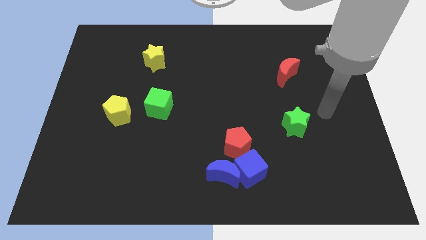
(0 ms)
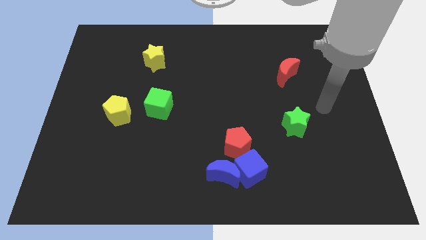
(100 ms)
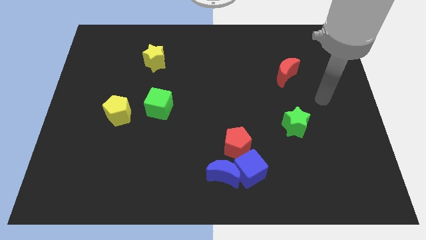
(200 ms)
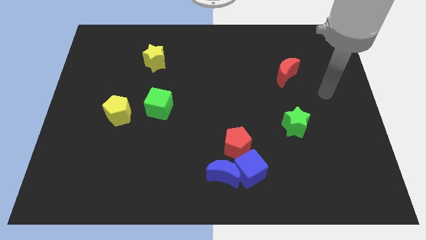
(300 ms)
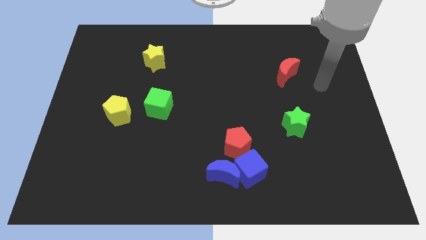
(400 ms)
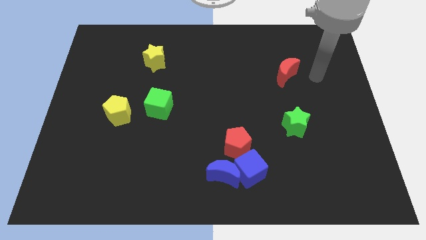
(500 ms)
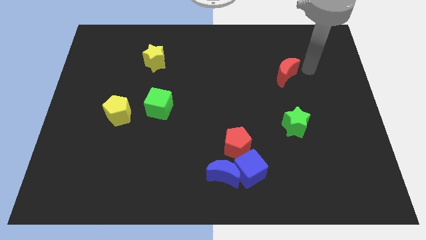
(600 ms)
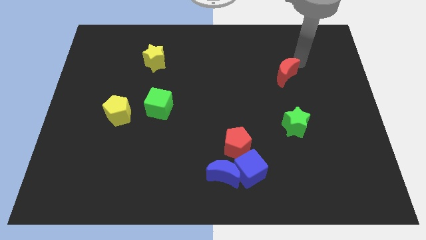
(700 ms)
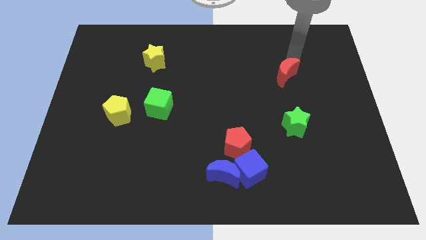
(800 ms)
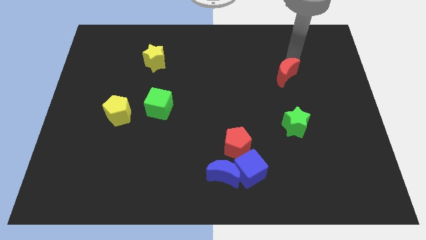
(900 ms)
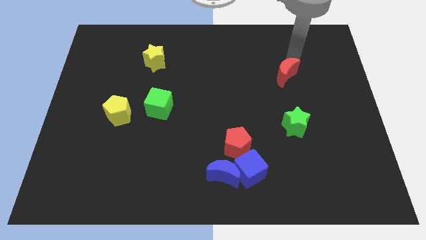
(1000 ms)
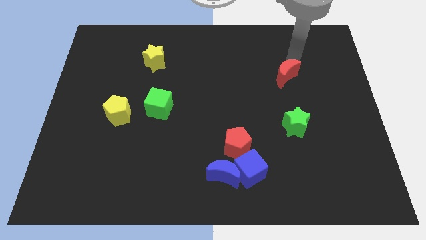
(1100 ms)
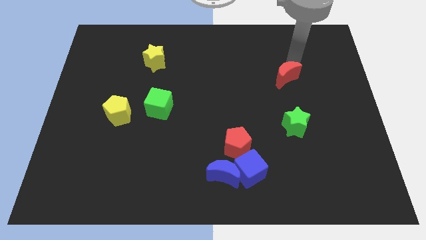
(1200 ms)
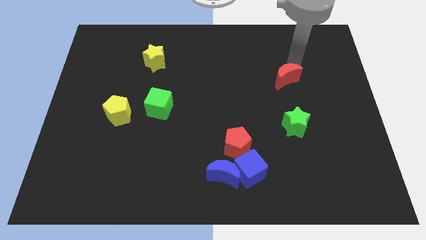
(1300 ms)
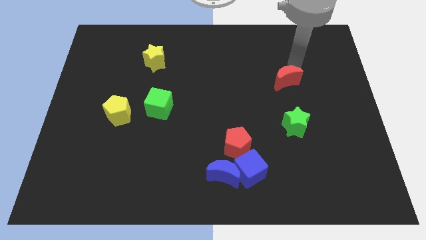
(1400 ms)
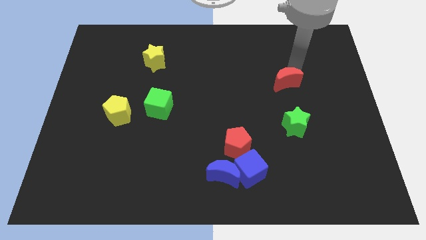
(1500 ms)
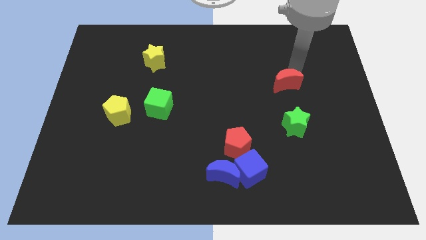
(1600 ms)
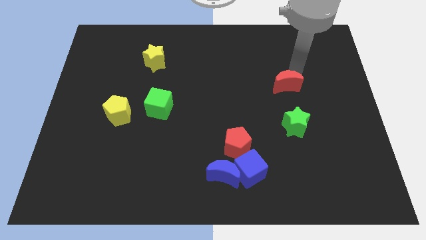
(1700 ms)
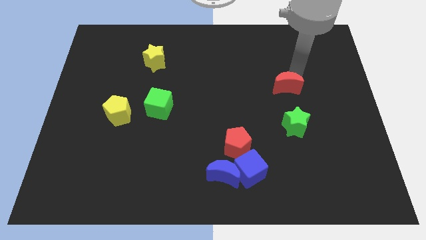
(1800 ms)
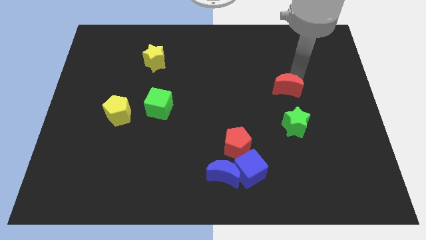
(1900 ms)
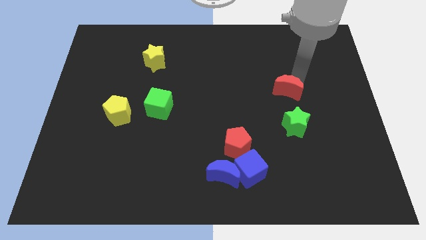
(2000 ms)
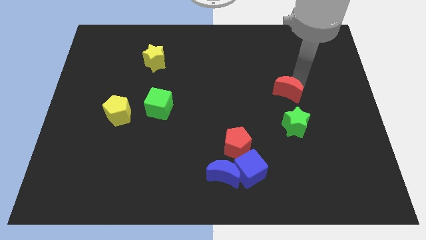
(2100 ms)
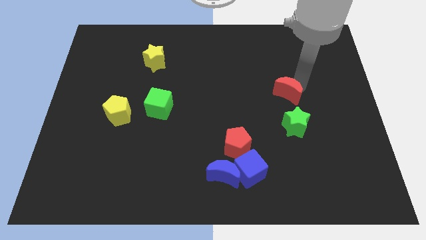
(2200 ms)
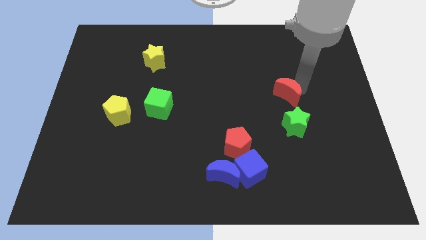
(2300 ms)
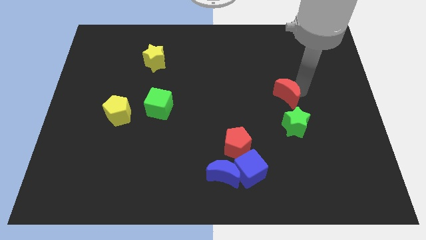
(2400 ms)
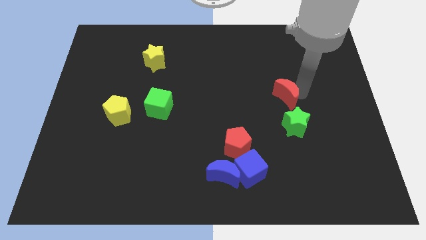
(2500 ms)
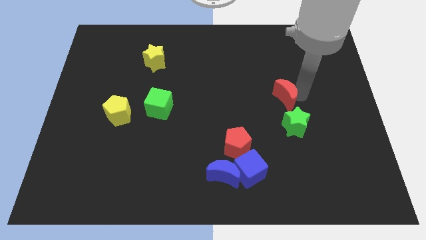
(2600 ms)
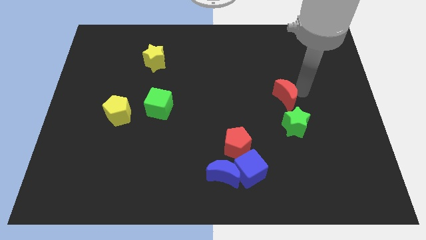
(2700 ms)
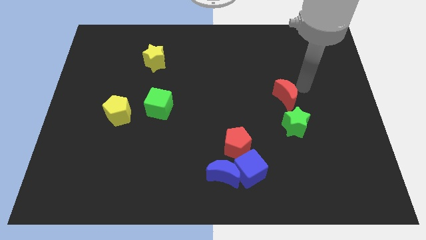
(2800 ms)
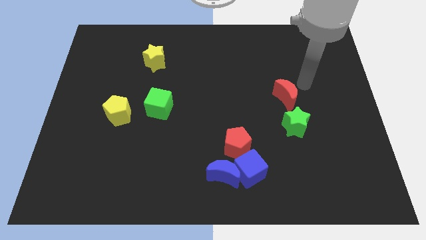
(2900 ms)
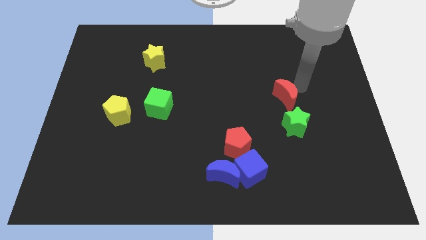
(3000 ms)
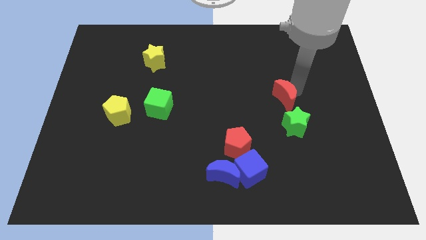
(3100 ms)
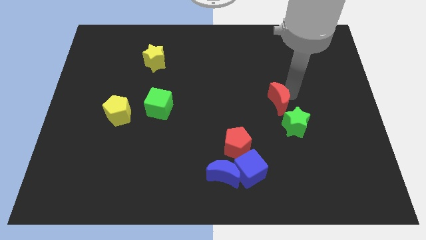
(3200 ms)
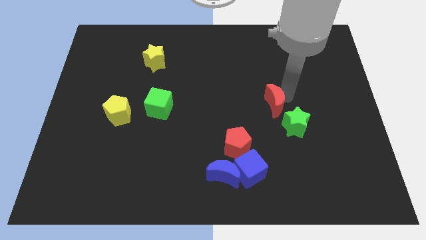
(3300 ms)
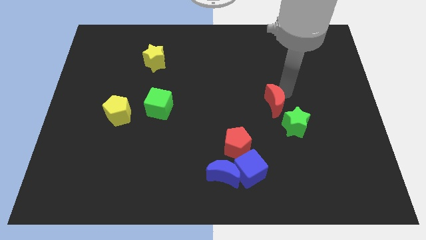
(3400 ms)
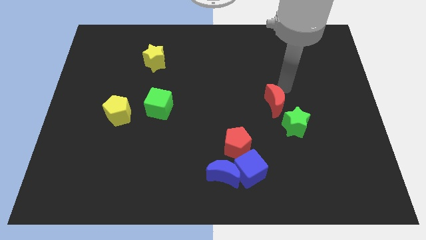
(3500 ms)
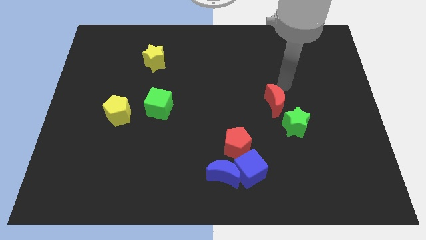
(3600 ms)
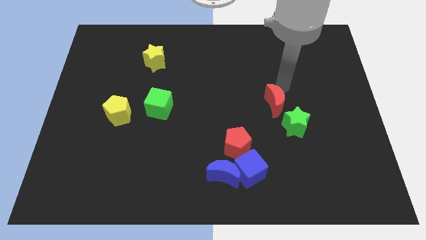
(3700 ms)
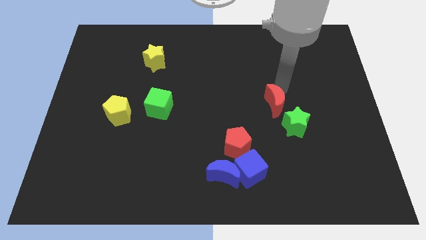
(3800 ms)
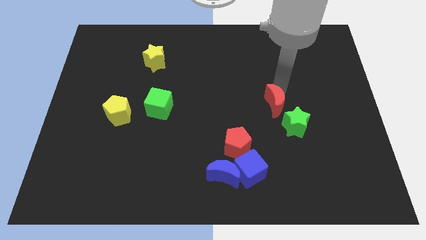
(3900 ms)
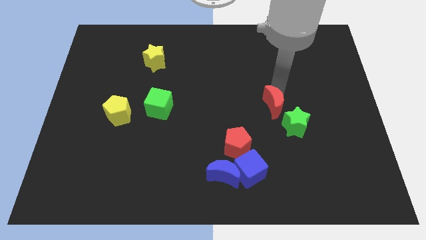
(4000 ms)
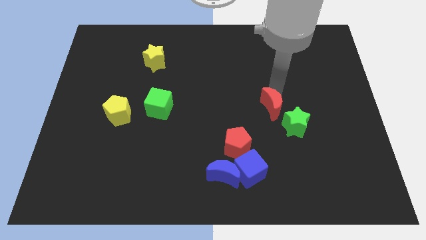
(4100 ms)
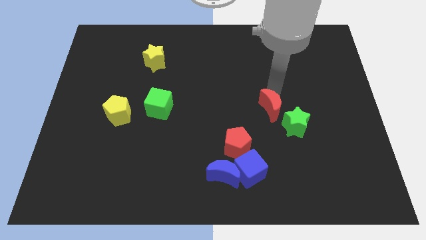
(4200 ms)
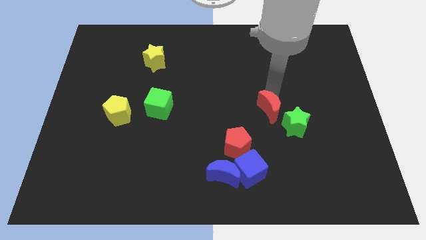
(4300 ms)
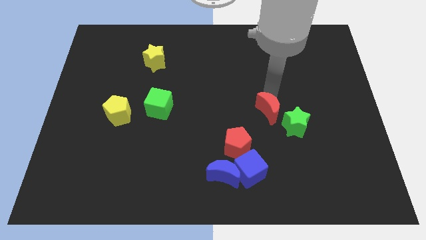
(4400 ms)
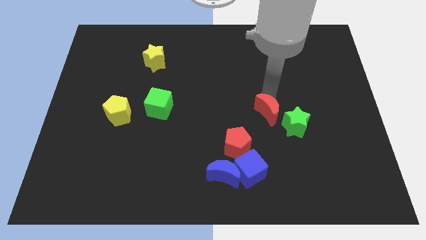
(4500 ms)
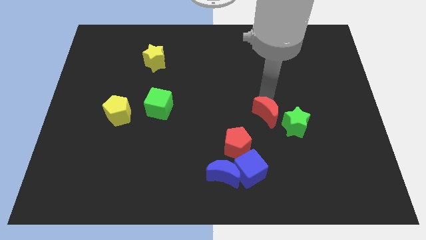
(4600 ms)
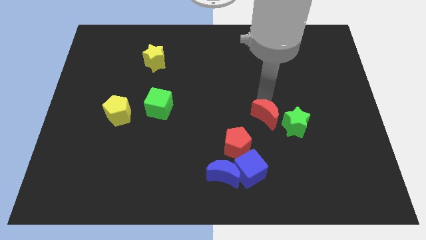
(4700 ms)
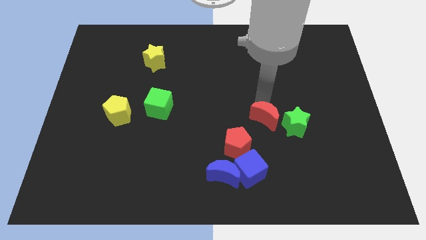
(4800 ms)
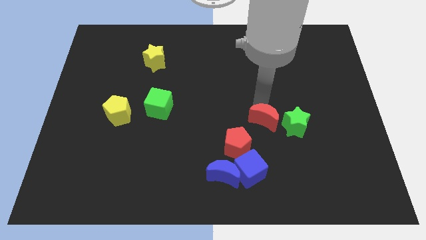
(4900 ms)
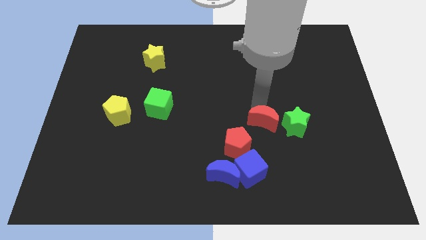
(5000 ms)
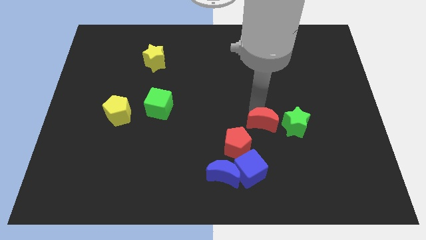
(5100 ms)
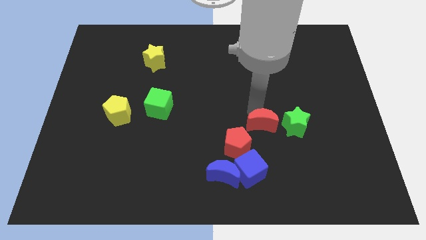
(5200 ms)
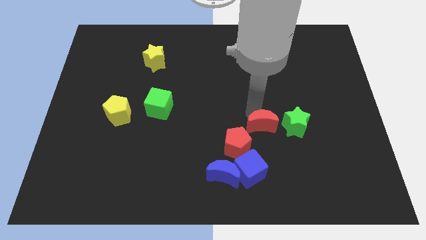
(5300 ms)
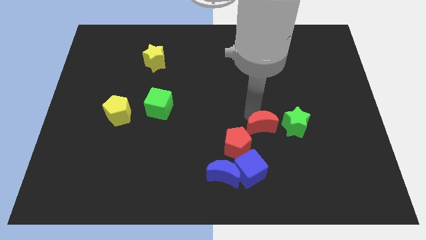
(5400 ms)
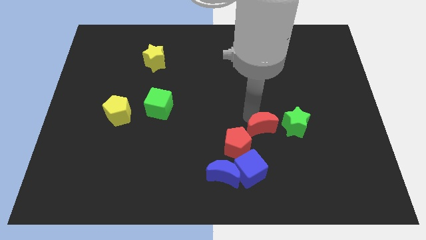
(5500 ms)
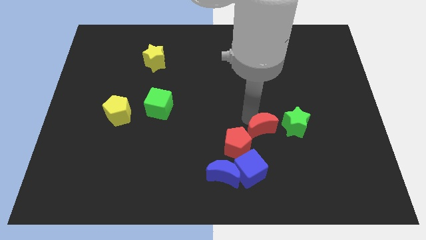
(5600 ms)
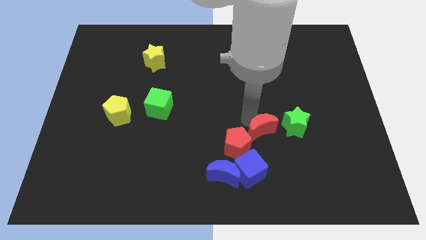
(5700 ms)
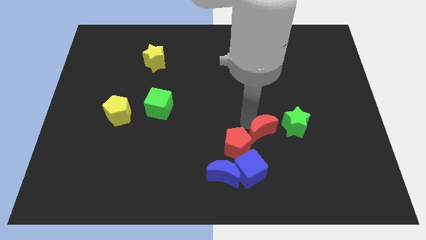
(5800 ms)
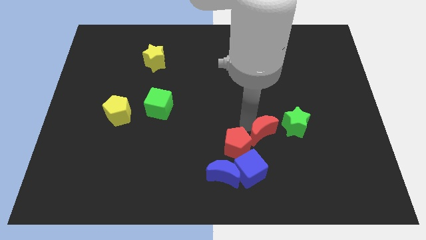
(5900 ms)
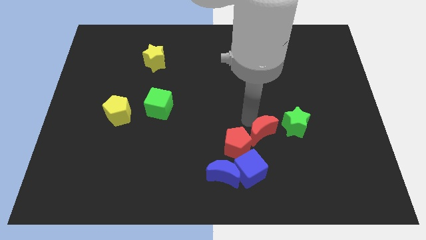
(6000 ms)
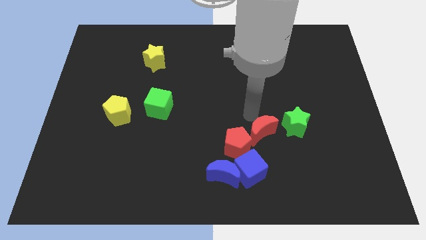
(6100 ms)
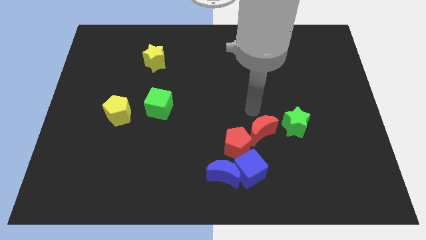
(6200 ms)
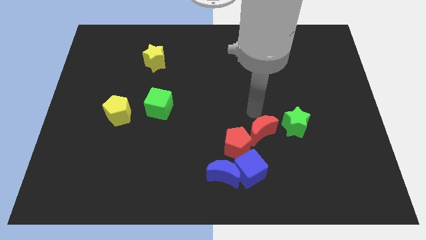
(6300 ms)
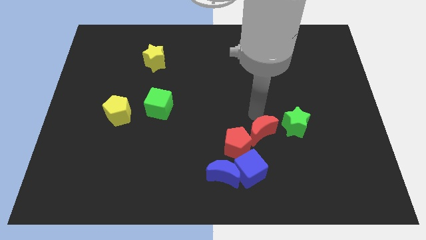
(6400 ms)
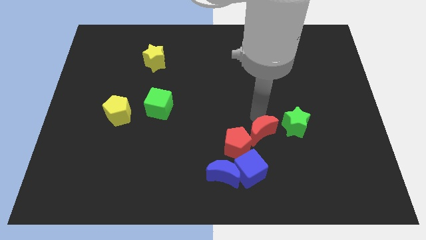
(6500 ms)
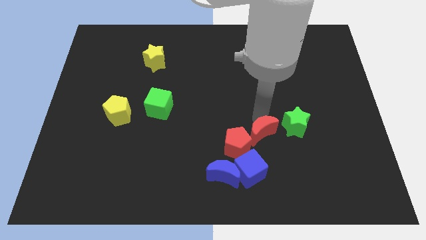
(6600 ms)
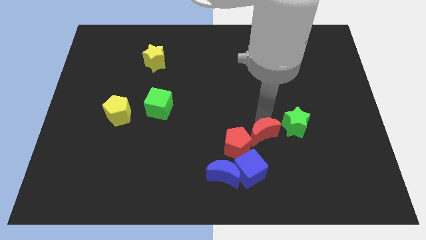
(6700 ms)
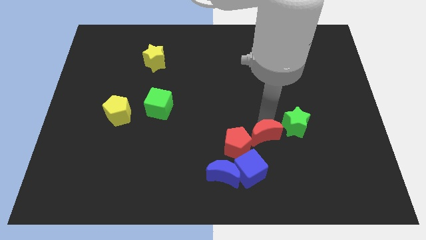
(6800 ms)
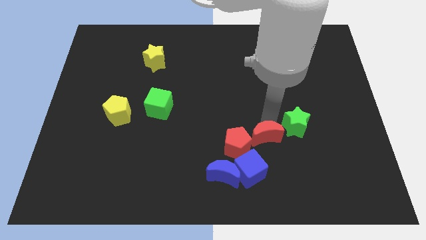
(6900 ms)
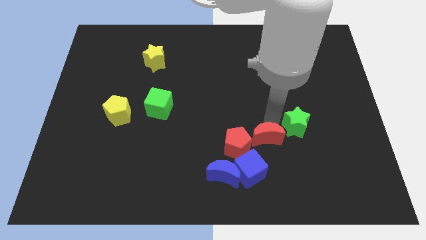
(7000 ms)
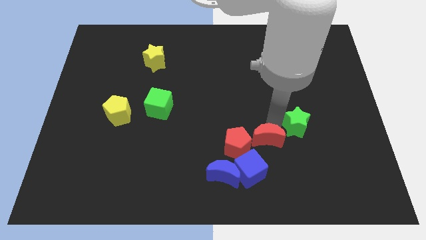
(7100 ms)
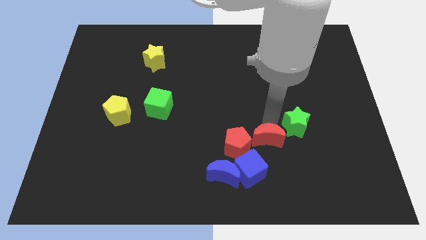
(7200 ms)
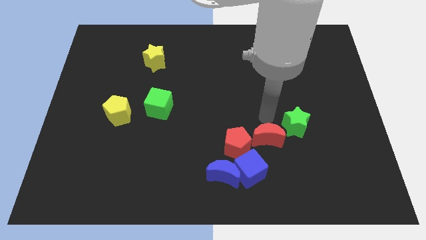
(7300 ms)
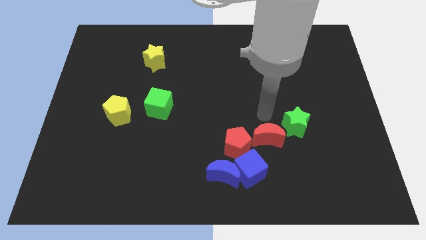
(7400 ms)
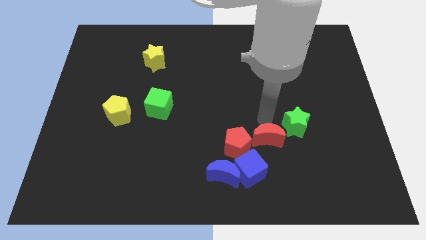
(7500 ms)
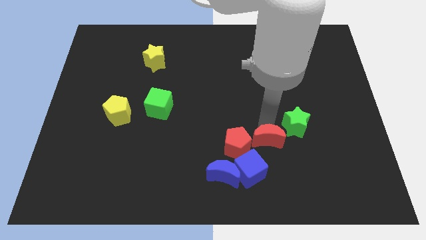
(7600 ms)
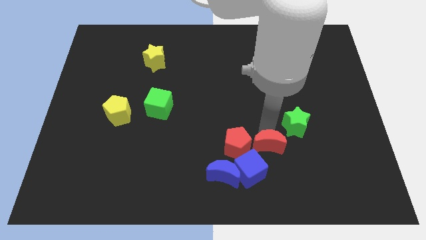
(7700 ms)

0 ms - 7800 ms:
slide the red moon to the bottom right of the red pentagon
